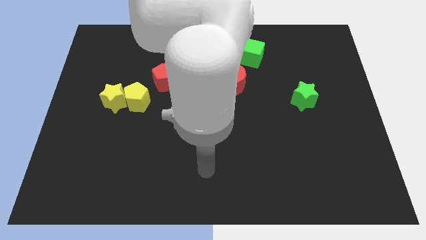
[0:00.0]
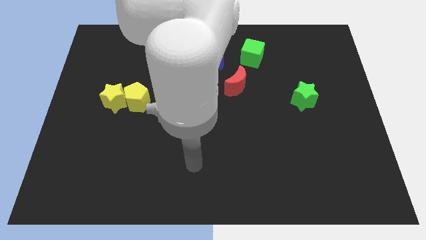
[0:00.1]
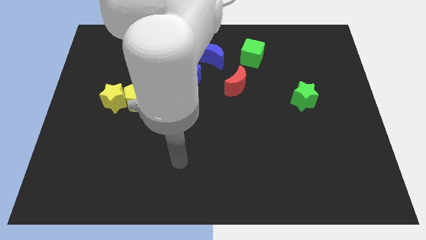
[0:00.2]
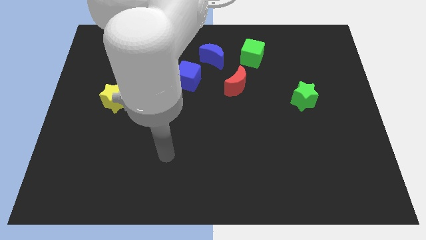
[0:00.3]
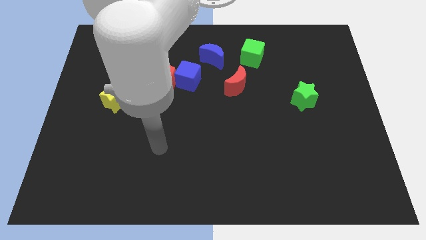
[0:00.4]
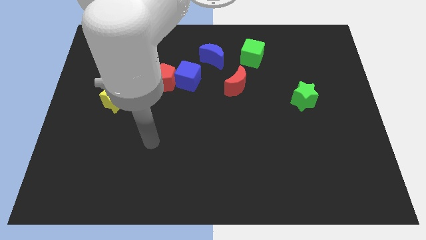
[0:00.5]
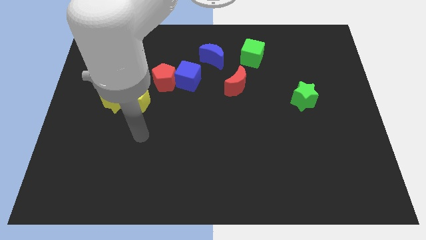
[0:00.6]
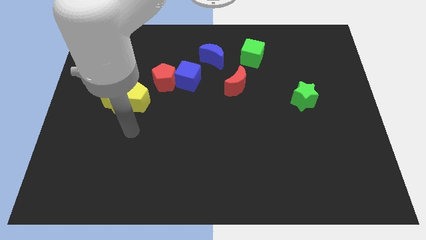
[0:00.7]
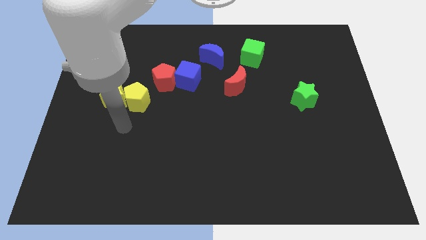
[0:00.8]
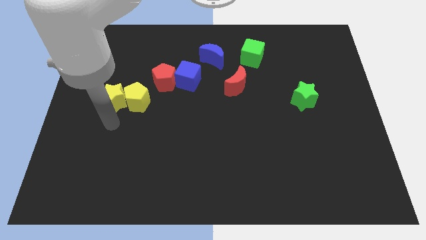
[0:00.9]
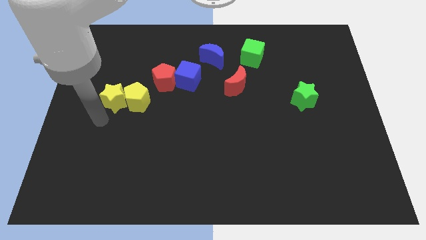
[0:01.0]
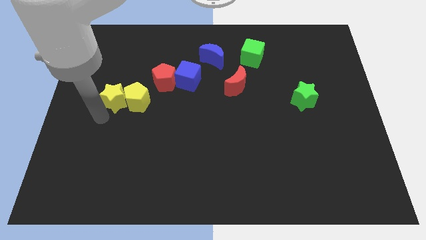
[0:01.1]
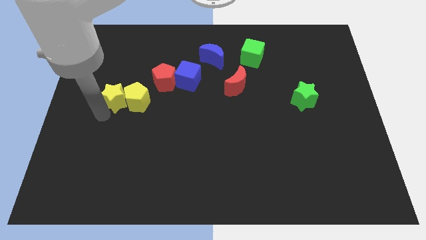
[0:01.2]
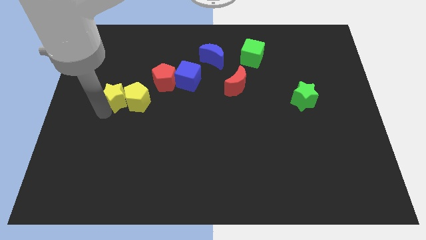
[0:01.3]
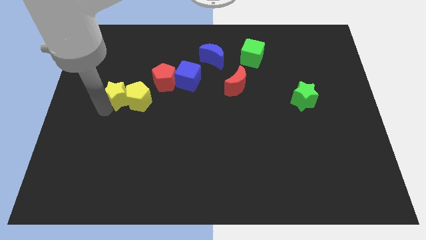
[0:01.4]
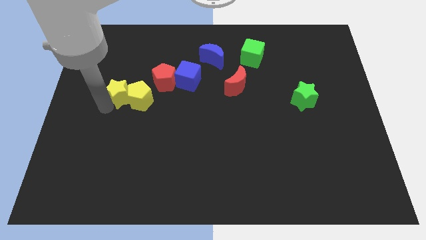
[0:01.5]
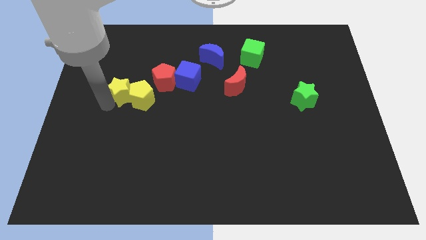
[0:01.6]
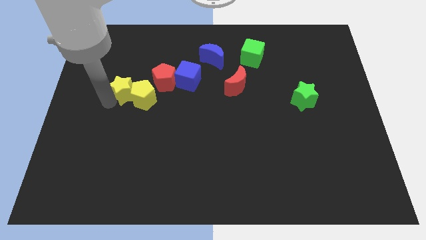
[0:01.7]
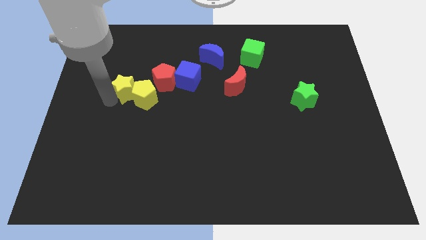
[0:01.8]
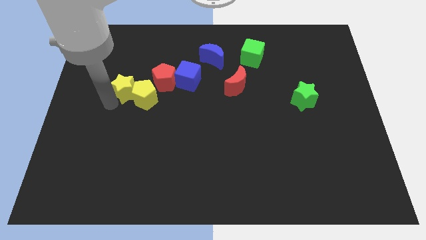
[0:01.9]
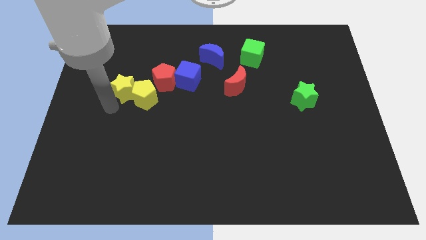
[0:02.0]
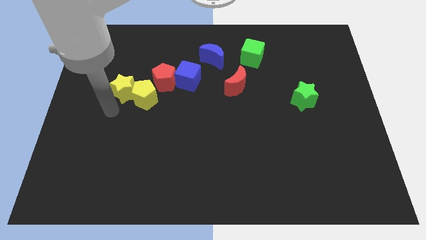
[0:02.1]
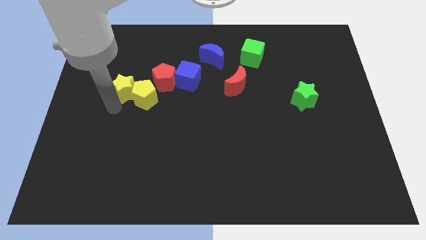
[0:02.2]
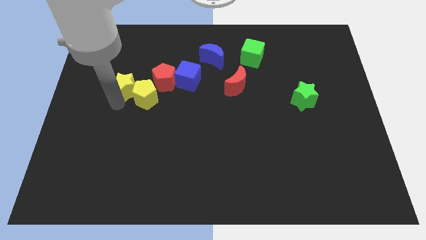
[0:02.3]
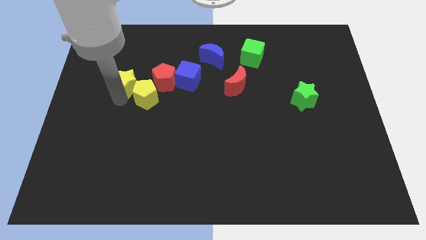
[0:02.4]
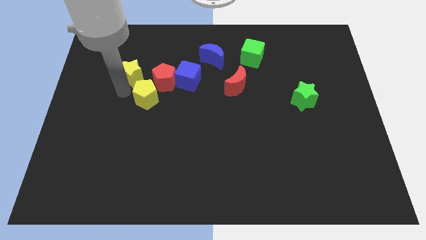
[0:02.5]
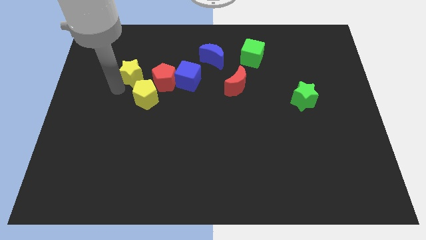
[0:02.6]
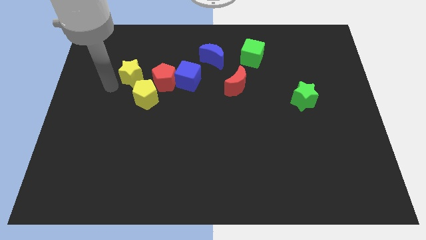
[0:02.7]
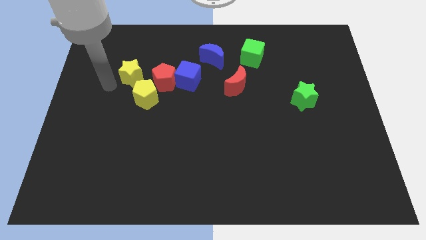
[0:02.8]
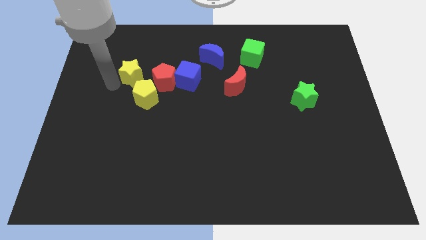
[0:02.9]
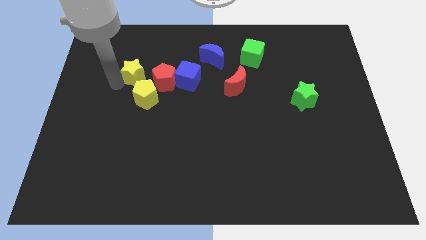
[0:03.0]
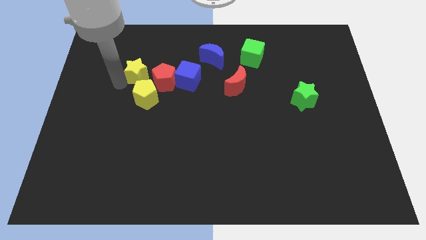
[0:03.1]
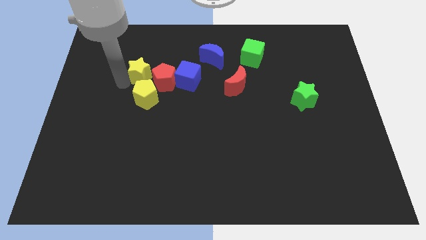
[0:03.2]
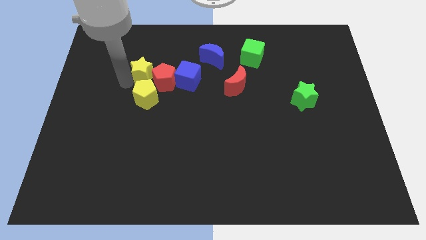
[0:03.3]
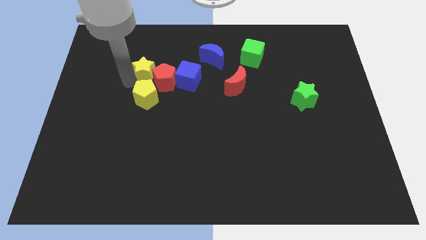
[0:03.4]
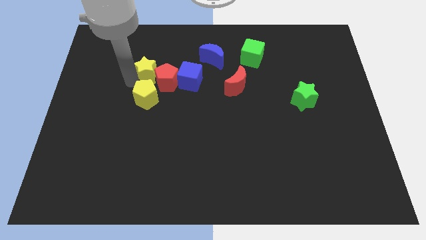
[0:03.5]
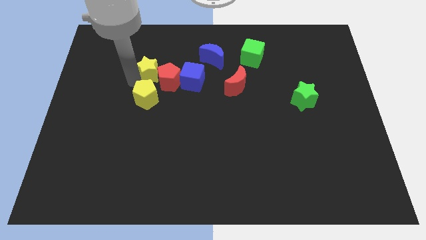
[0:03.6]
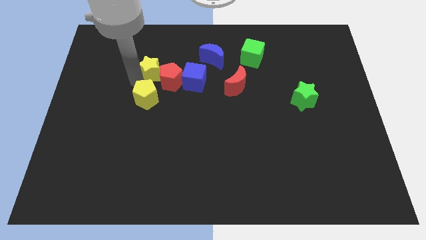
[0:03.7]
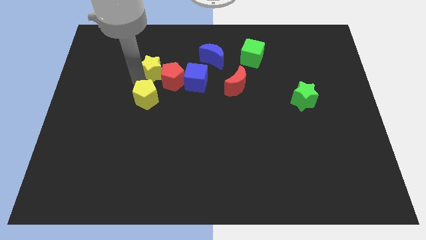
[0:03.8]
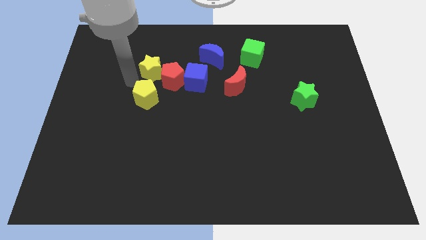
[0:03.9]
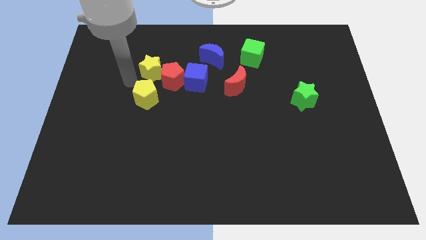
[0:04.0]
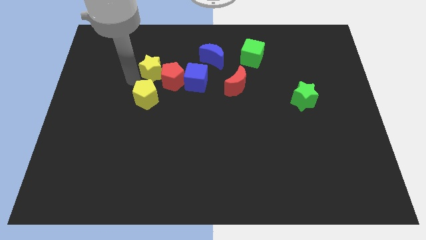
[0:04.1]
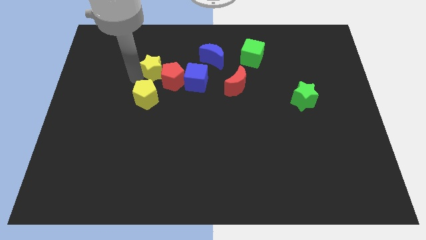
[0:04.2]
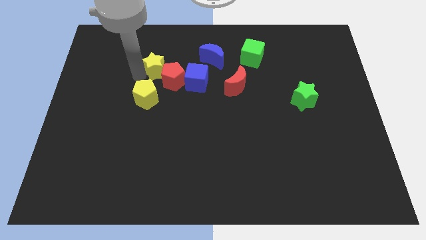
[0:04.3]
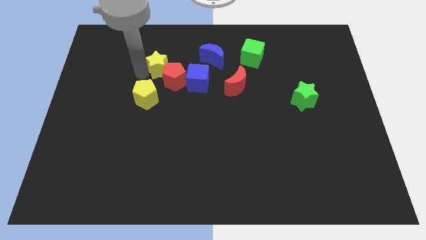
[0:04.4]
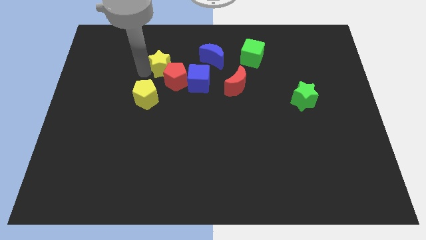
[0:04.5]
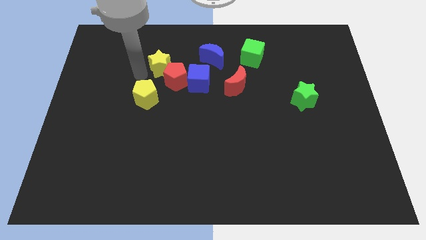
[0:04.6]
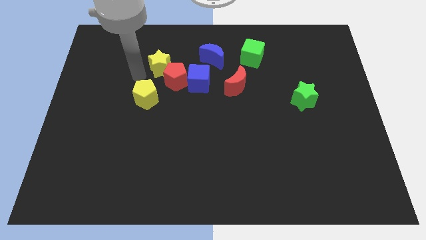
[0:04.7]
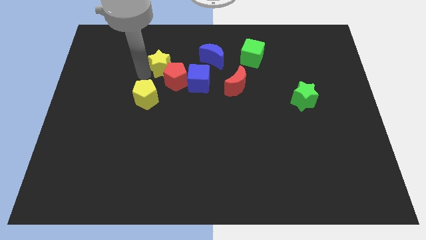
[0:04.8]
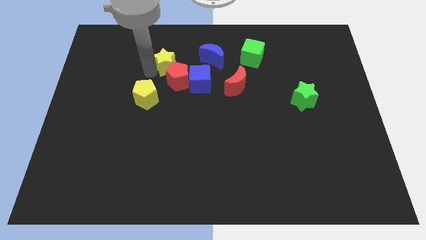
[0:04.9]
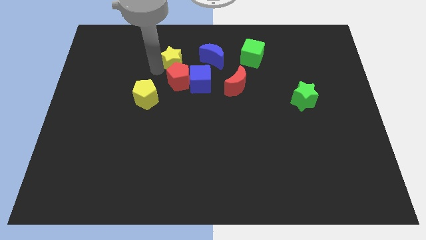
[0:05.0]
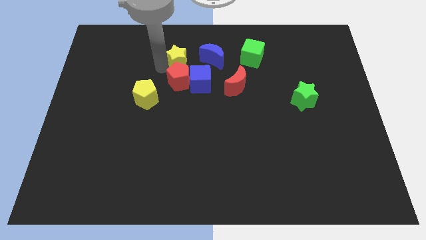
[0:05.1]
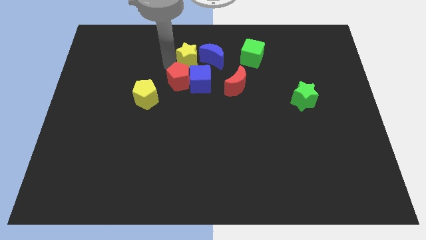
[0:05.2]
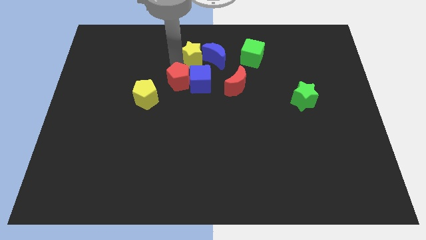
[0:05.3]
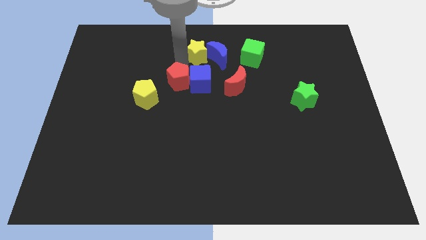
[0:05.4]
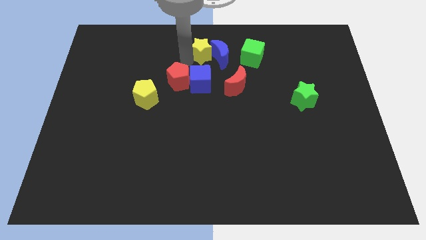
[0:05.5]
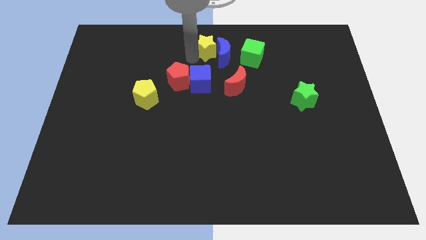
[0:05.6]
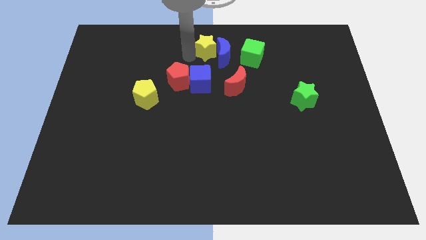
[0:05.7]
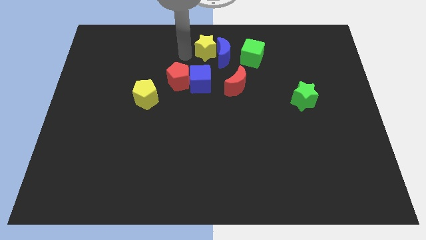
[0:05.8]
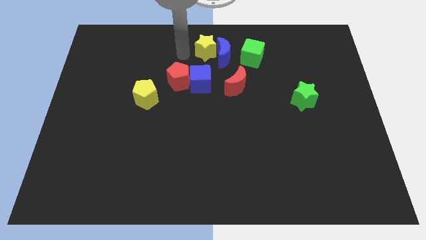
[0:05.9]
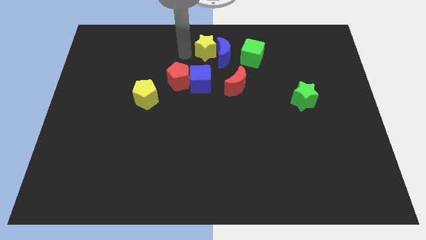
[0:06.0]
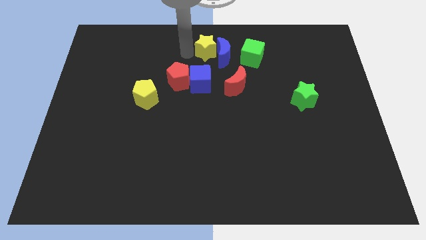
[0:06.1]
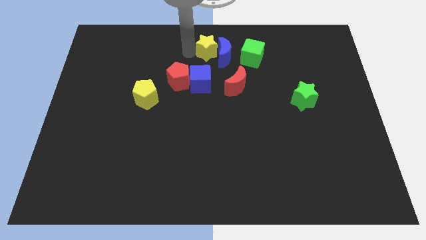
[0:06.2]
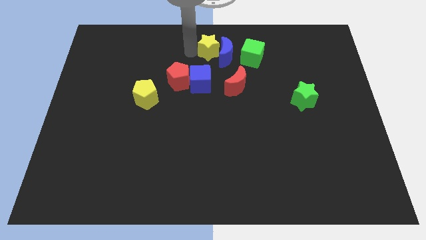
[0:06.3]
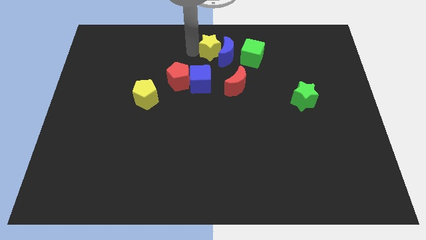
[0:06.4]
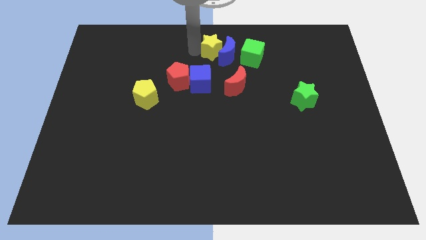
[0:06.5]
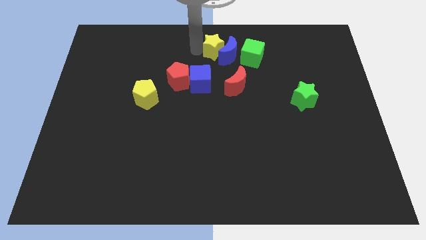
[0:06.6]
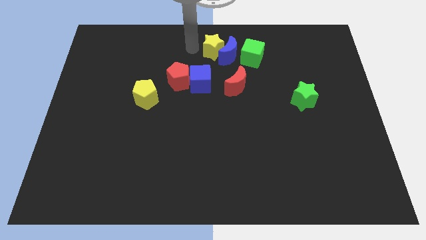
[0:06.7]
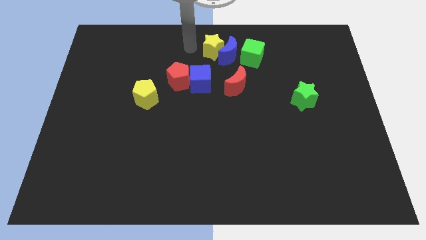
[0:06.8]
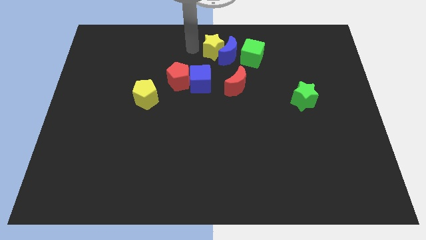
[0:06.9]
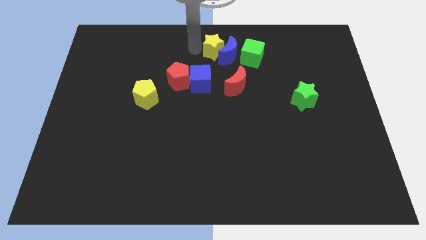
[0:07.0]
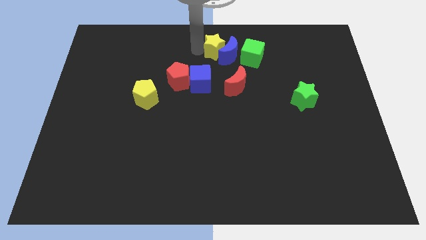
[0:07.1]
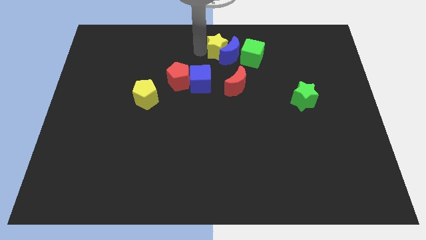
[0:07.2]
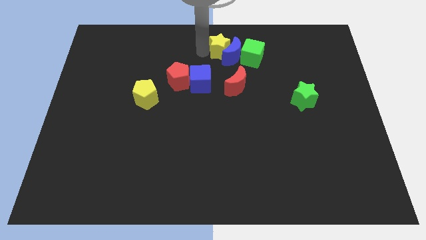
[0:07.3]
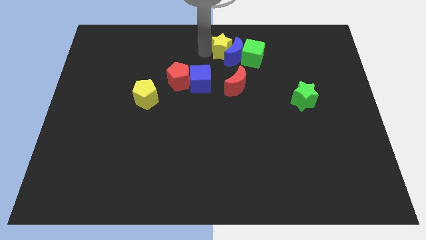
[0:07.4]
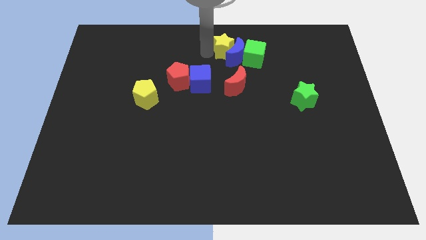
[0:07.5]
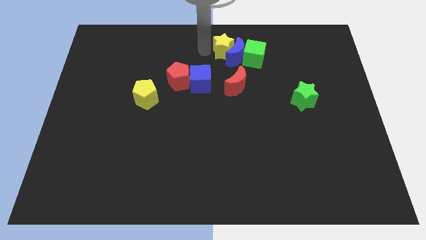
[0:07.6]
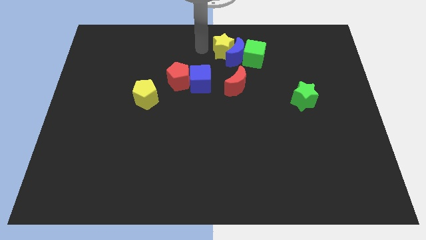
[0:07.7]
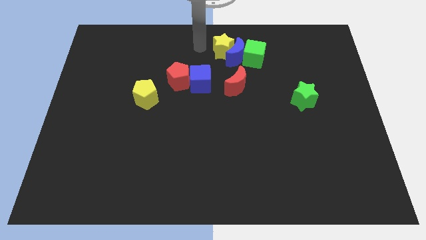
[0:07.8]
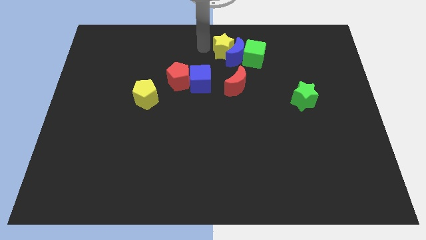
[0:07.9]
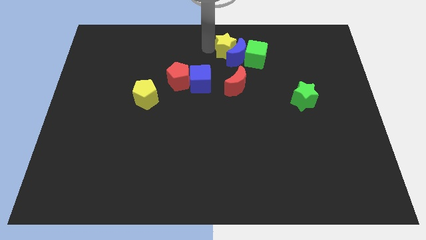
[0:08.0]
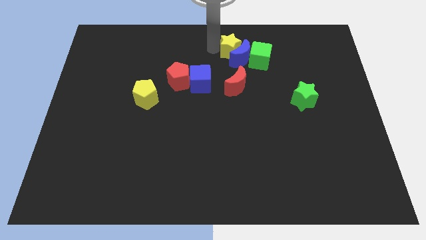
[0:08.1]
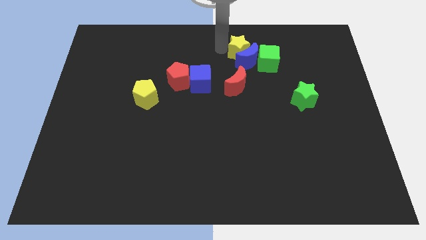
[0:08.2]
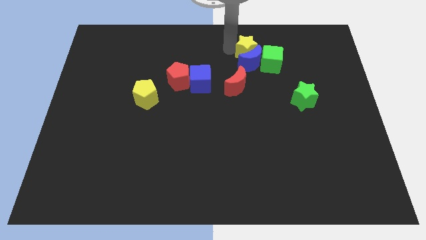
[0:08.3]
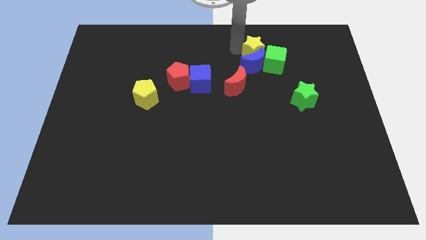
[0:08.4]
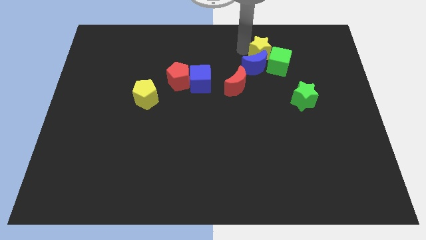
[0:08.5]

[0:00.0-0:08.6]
put the yellow star to the green cube
